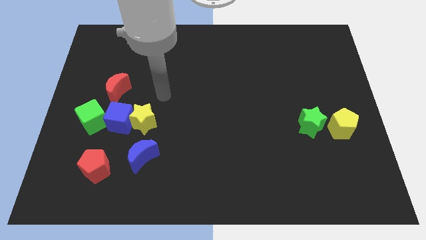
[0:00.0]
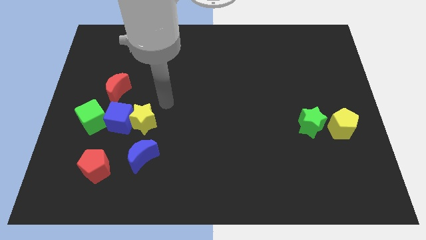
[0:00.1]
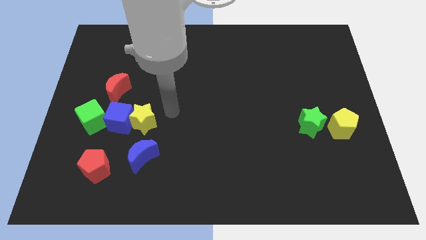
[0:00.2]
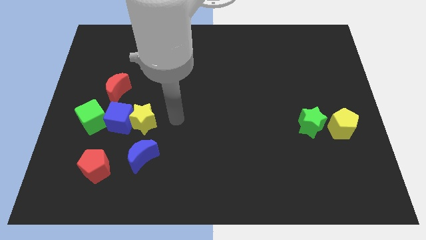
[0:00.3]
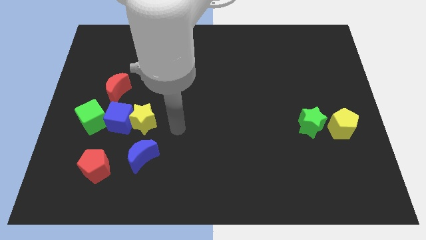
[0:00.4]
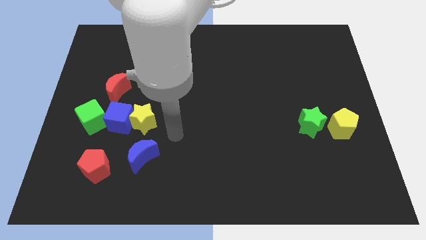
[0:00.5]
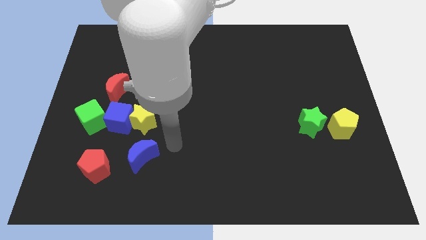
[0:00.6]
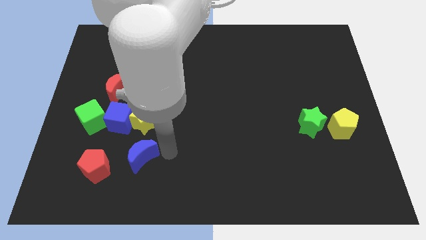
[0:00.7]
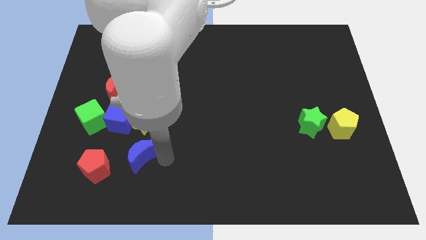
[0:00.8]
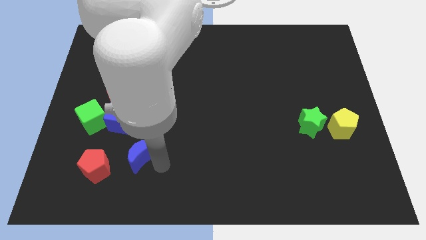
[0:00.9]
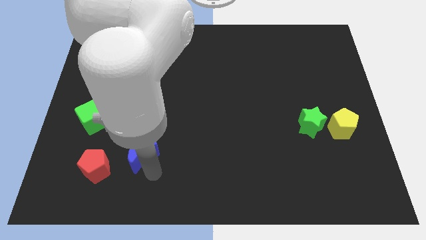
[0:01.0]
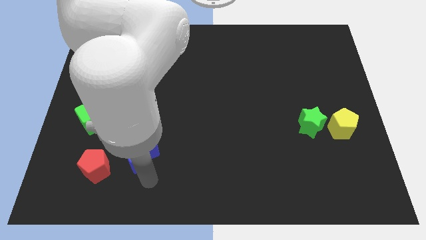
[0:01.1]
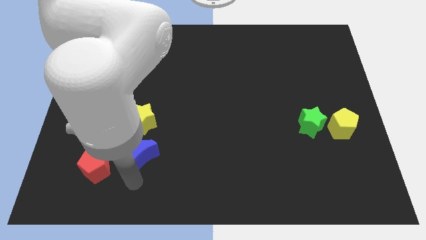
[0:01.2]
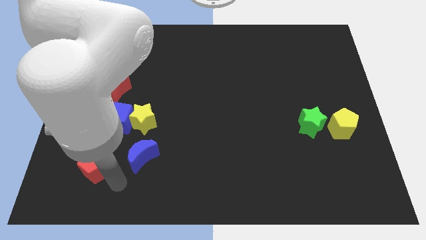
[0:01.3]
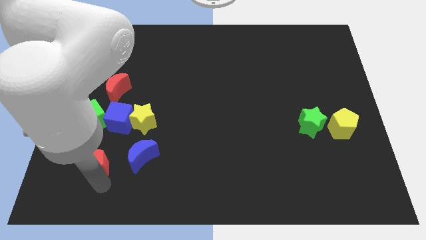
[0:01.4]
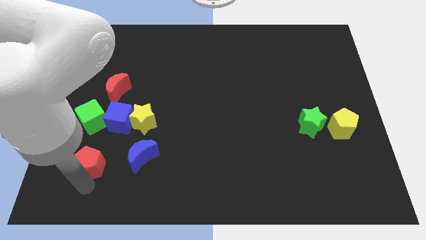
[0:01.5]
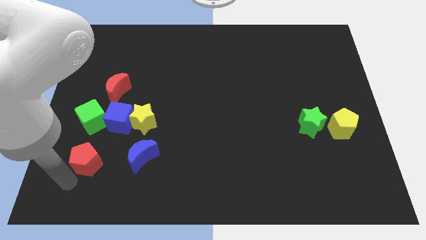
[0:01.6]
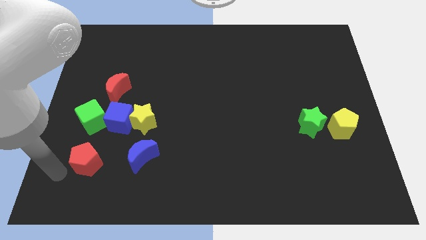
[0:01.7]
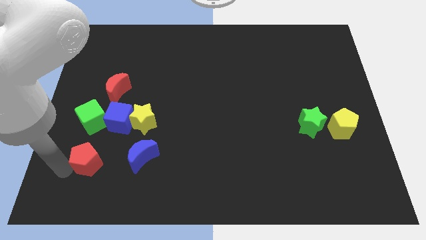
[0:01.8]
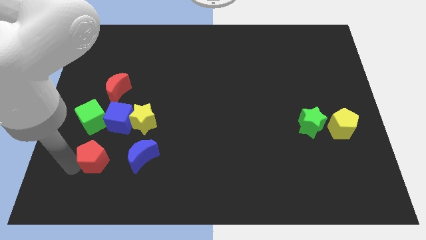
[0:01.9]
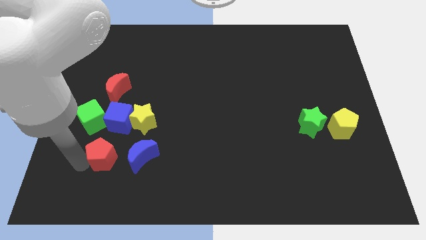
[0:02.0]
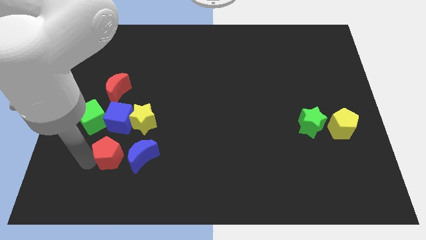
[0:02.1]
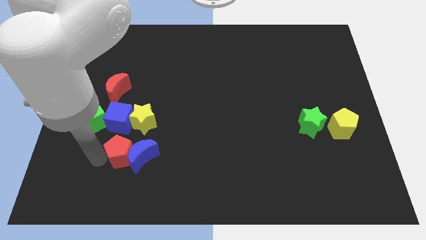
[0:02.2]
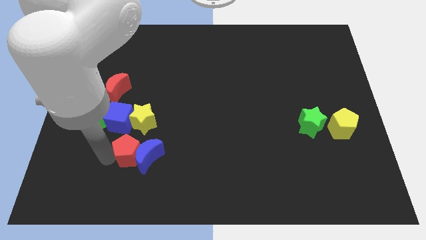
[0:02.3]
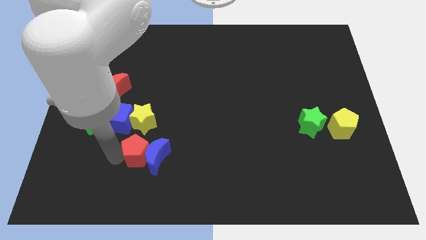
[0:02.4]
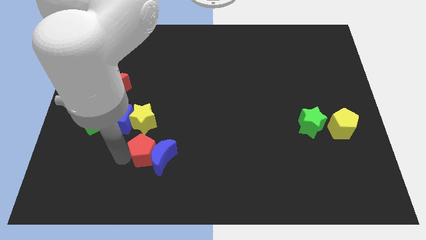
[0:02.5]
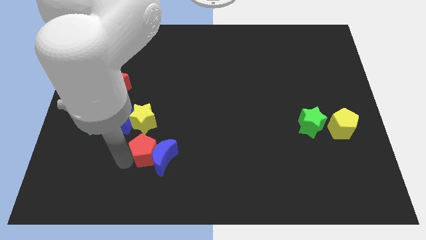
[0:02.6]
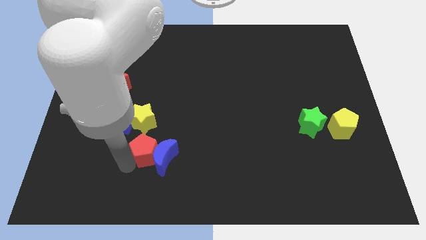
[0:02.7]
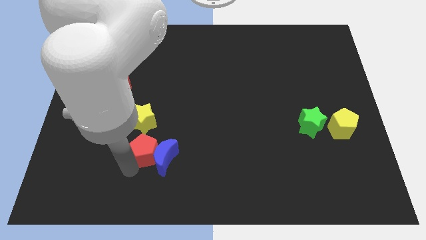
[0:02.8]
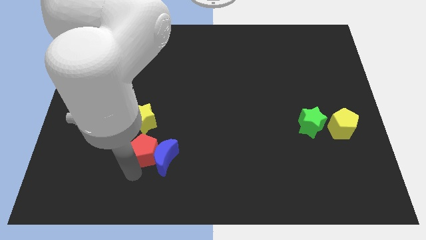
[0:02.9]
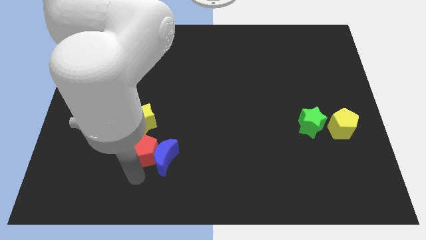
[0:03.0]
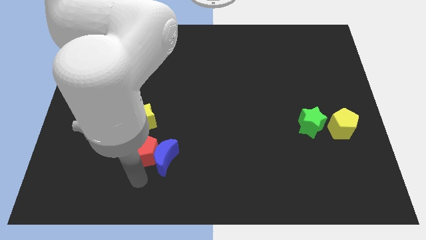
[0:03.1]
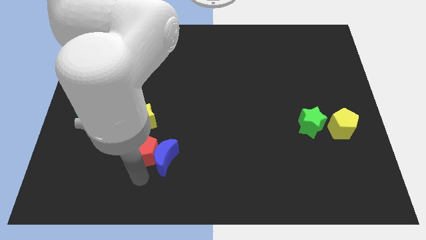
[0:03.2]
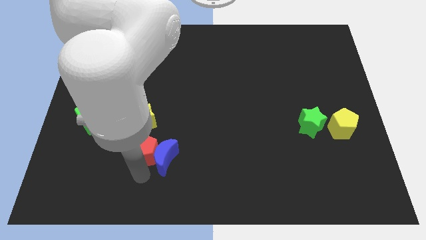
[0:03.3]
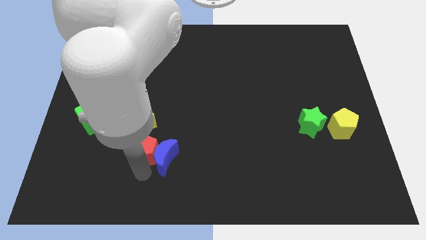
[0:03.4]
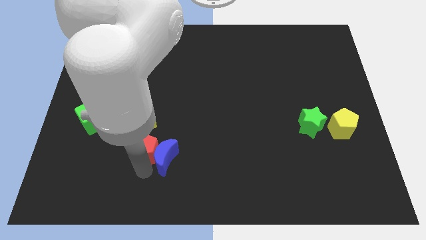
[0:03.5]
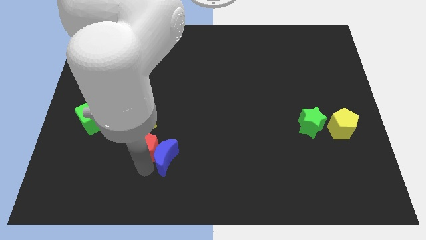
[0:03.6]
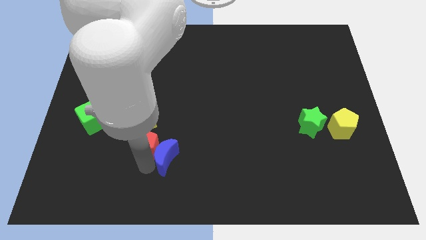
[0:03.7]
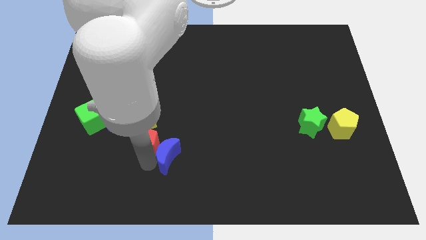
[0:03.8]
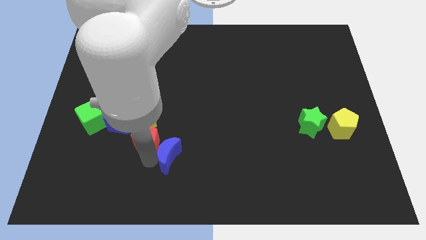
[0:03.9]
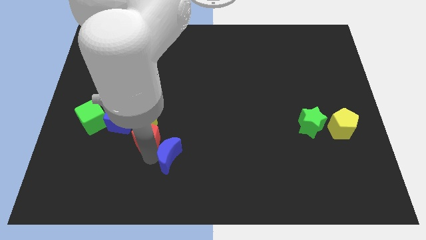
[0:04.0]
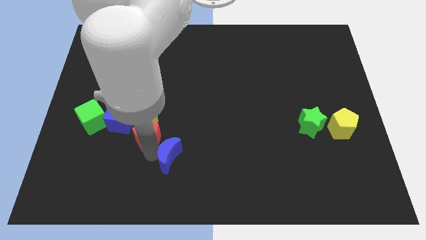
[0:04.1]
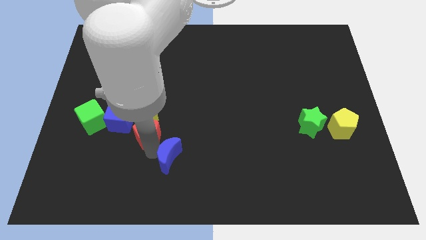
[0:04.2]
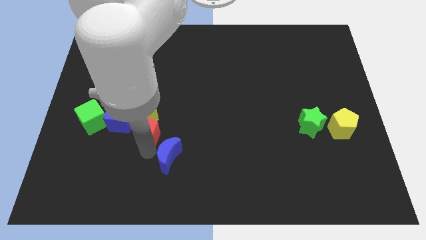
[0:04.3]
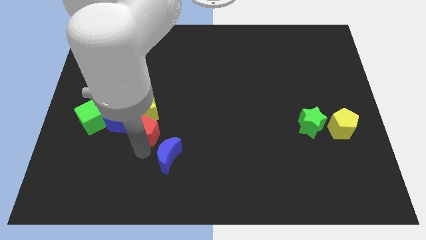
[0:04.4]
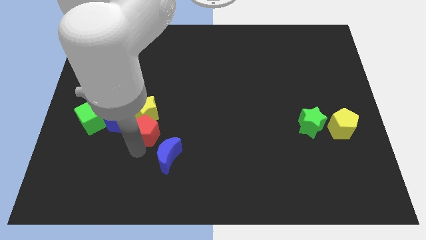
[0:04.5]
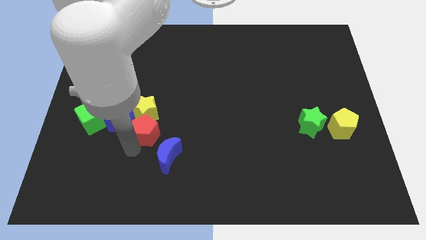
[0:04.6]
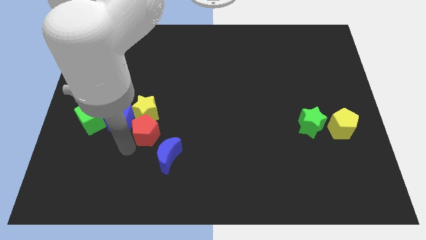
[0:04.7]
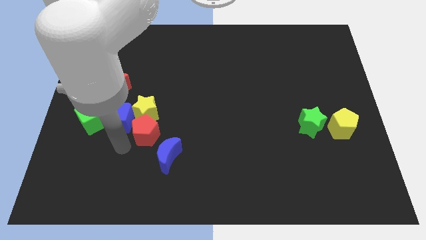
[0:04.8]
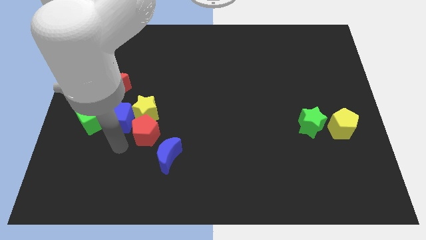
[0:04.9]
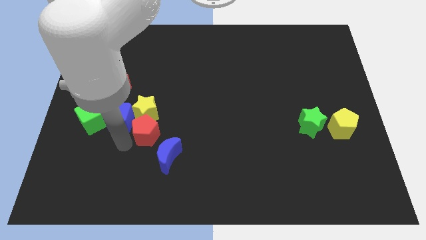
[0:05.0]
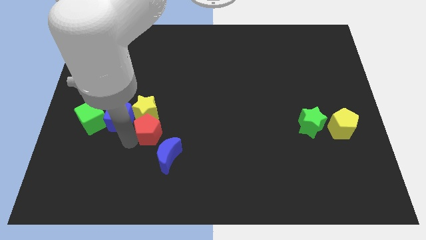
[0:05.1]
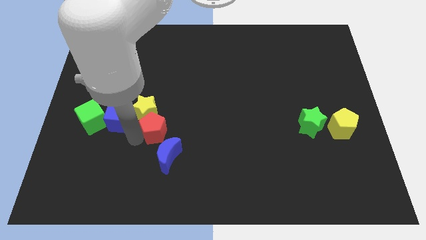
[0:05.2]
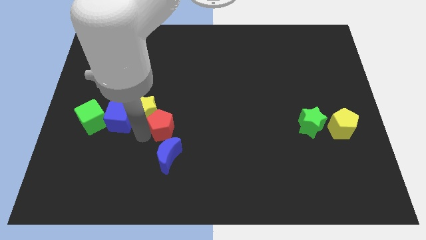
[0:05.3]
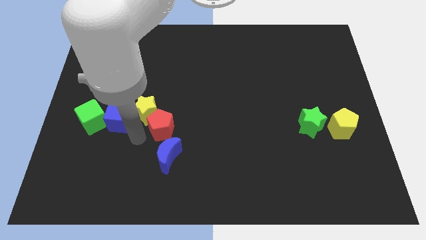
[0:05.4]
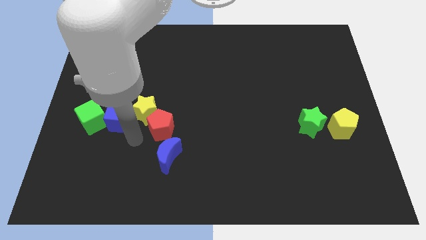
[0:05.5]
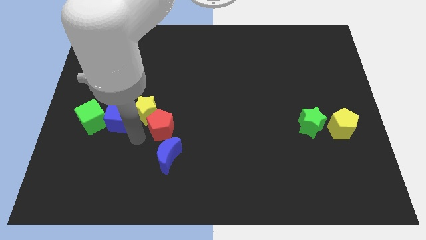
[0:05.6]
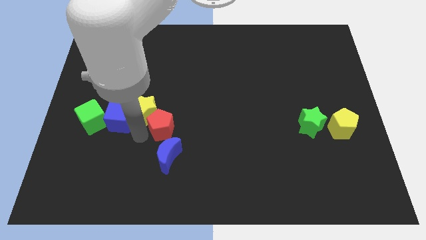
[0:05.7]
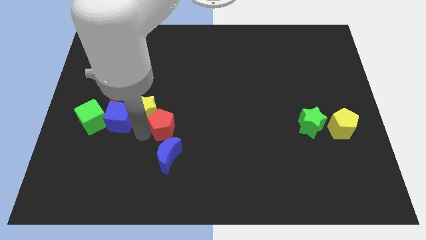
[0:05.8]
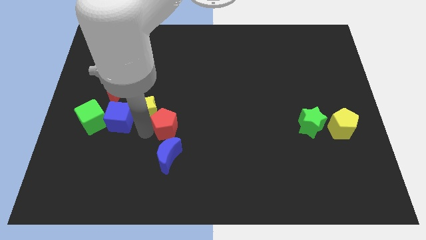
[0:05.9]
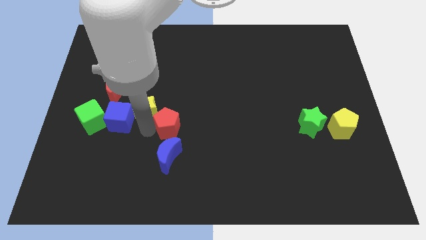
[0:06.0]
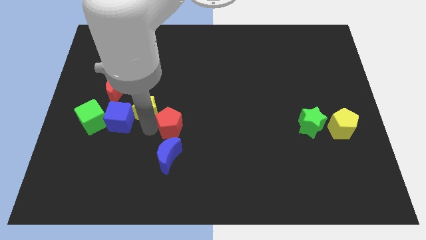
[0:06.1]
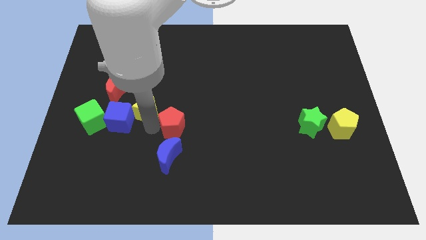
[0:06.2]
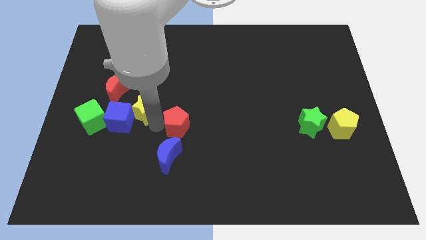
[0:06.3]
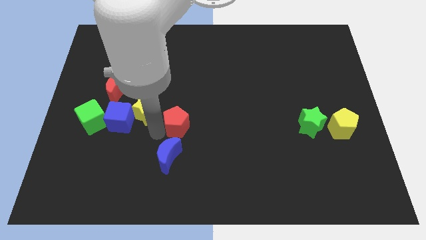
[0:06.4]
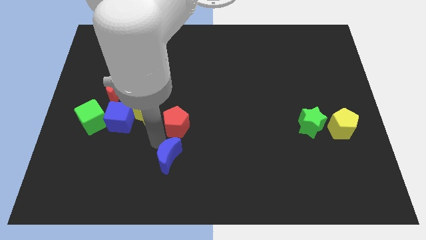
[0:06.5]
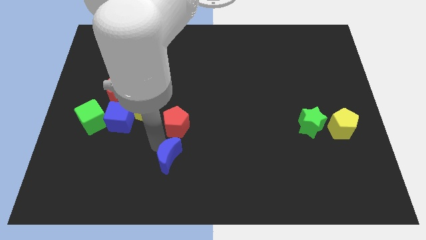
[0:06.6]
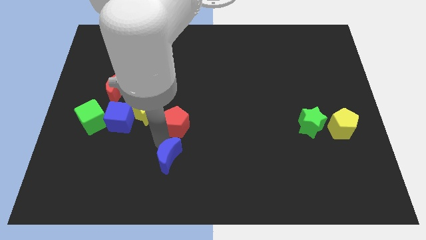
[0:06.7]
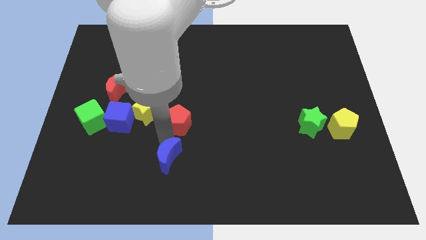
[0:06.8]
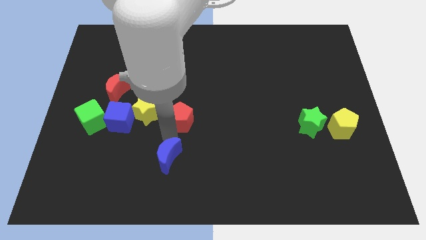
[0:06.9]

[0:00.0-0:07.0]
push the red pentagon upwards and to the right

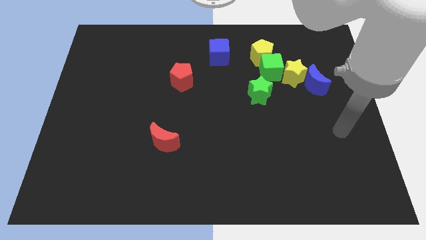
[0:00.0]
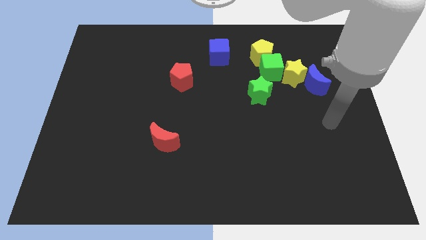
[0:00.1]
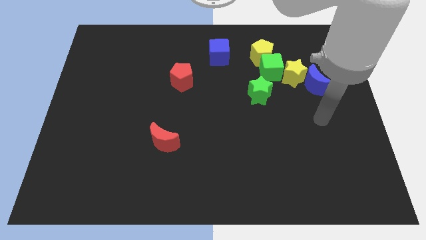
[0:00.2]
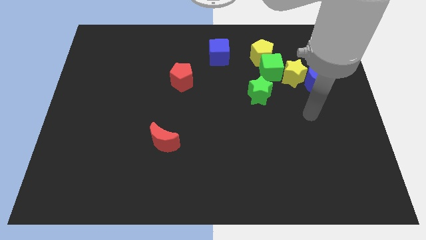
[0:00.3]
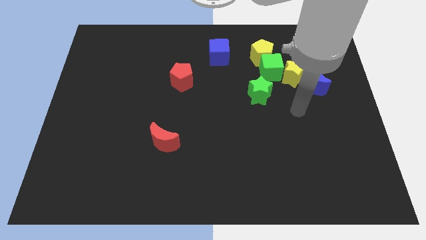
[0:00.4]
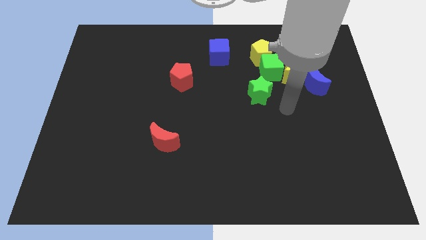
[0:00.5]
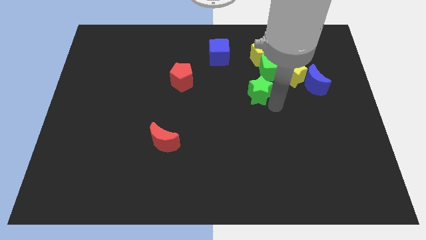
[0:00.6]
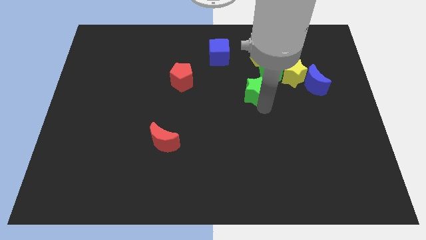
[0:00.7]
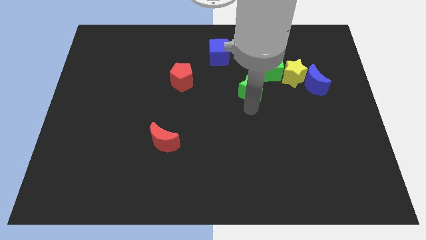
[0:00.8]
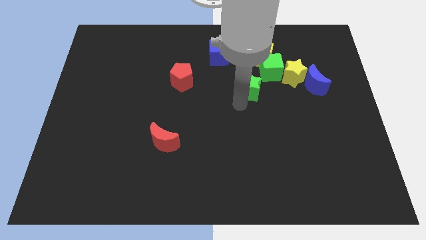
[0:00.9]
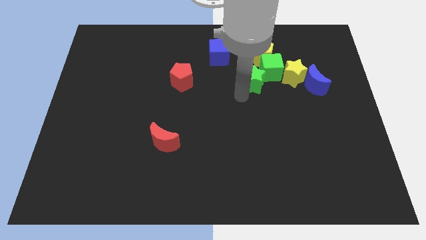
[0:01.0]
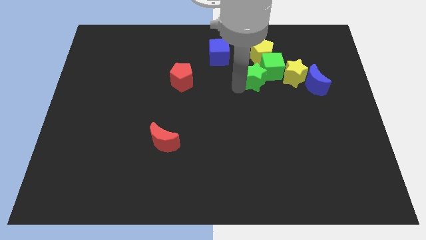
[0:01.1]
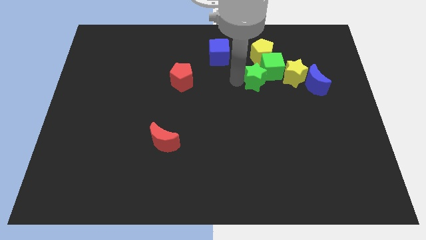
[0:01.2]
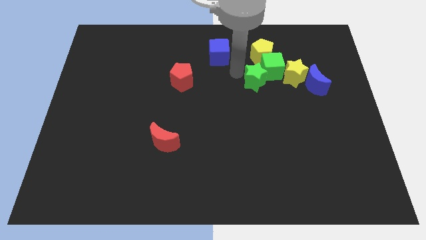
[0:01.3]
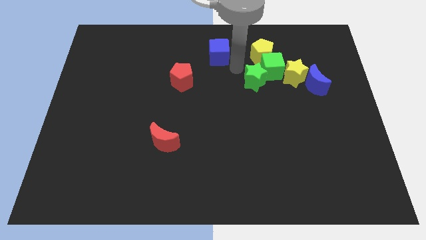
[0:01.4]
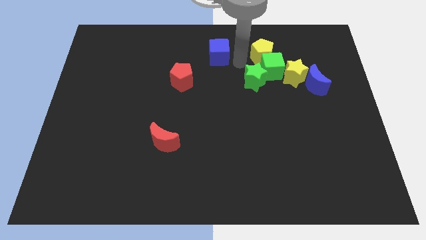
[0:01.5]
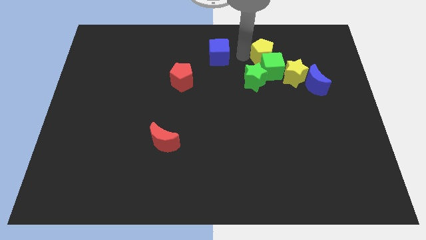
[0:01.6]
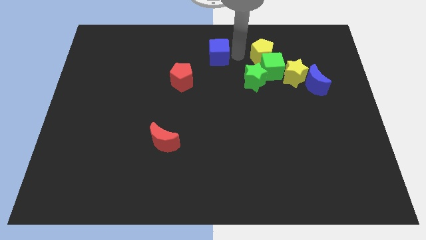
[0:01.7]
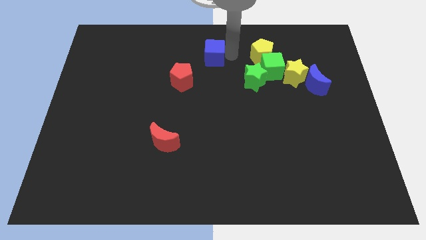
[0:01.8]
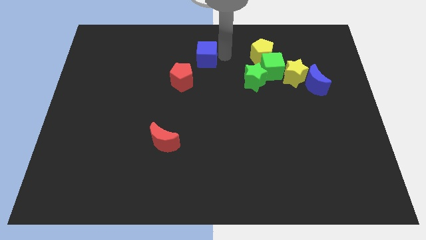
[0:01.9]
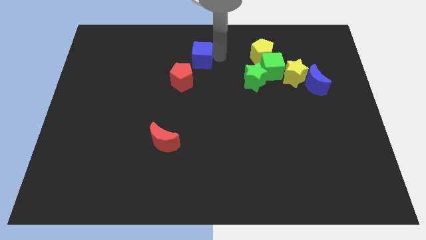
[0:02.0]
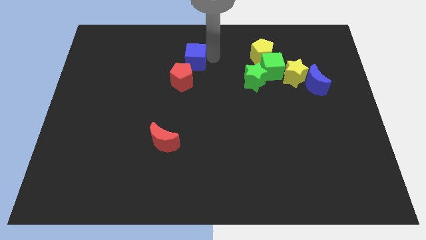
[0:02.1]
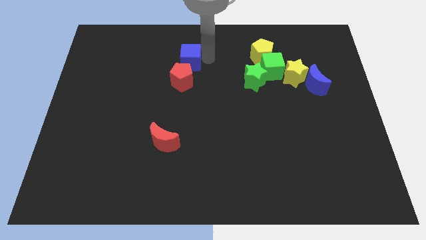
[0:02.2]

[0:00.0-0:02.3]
slightly push the blue cube left
